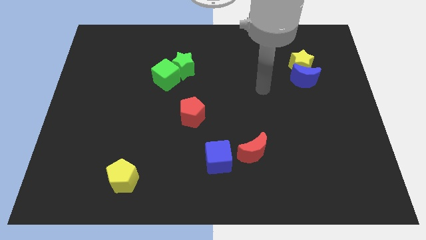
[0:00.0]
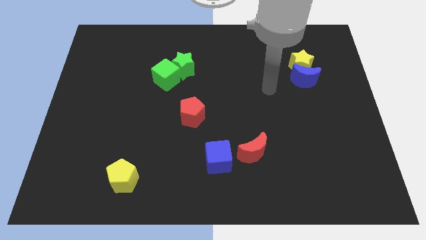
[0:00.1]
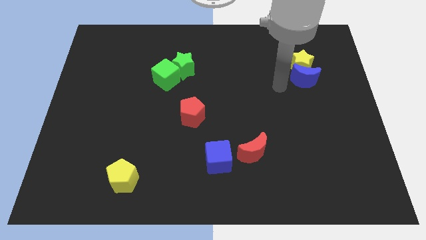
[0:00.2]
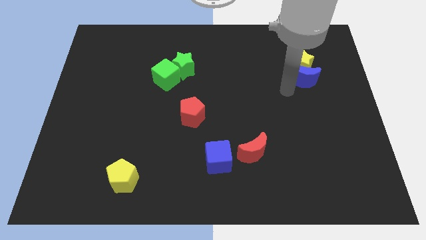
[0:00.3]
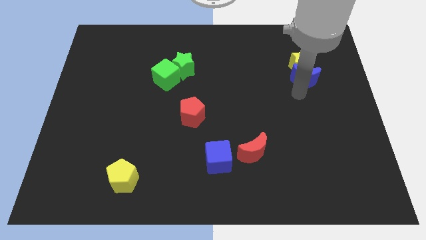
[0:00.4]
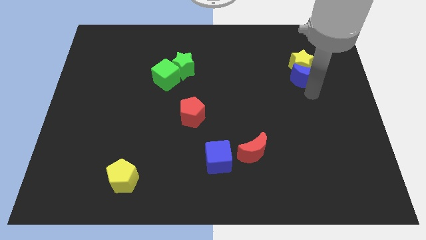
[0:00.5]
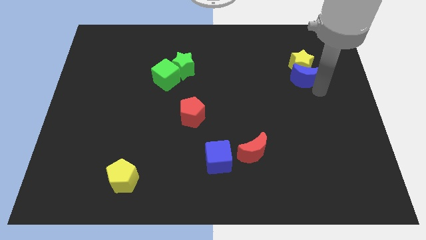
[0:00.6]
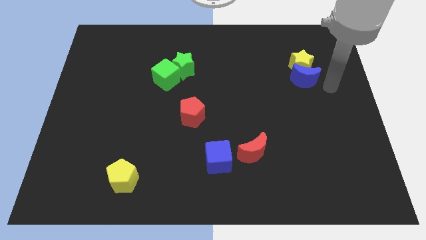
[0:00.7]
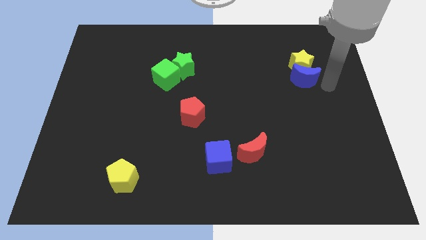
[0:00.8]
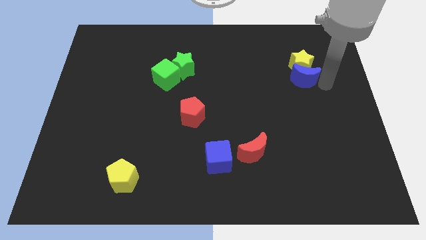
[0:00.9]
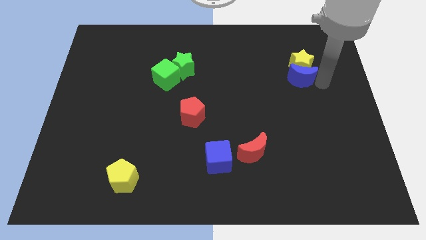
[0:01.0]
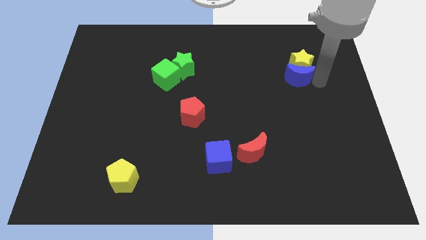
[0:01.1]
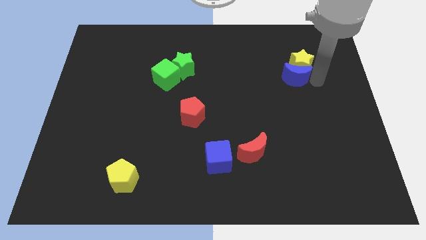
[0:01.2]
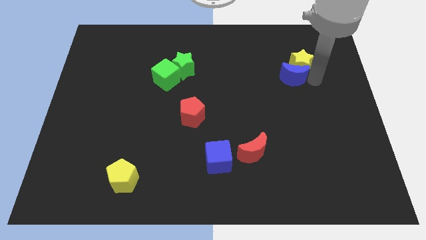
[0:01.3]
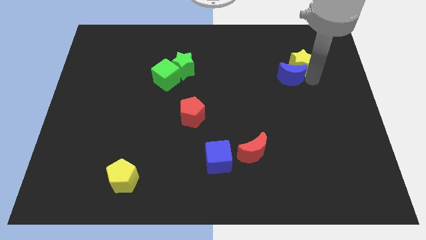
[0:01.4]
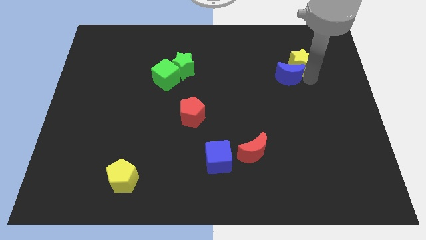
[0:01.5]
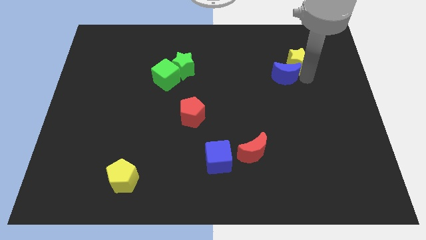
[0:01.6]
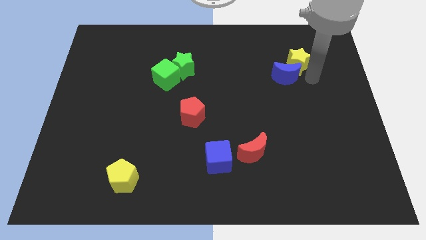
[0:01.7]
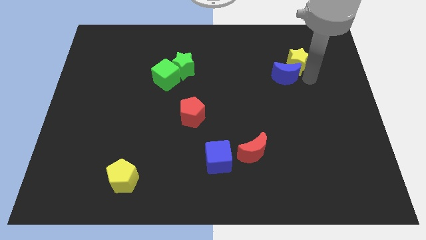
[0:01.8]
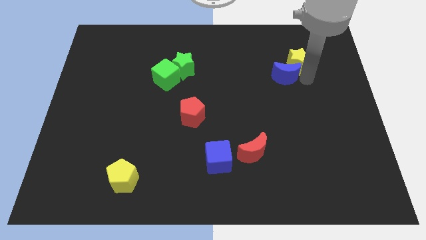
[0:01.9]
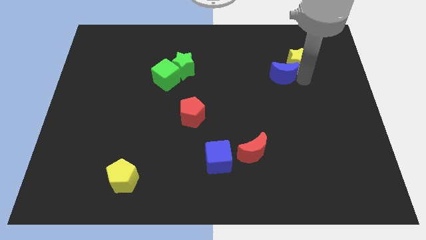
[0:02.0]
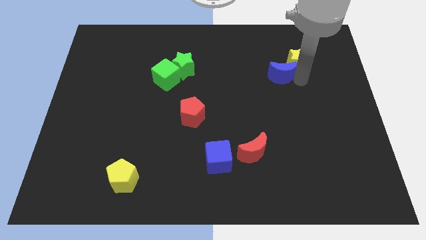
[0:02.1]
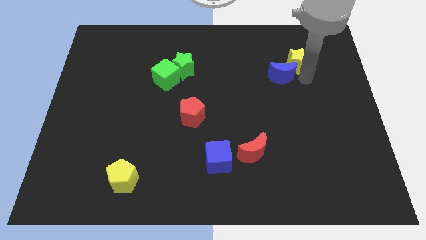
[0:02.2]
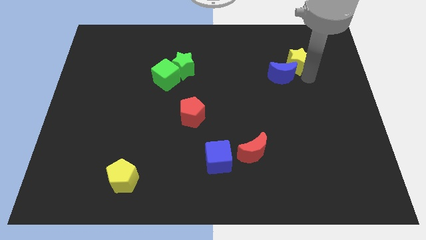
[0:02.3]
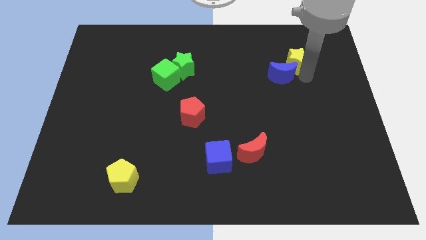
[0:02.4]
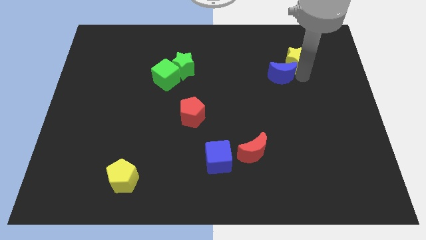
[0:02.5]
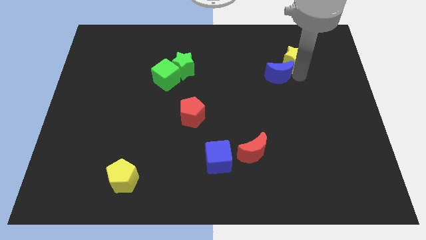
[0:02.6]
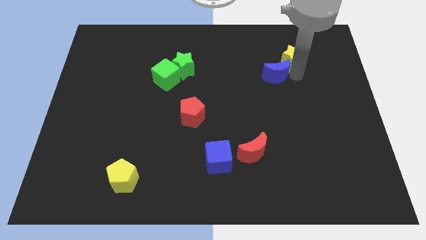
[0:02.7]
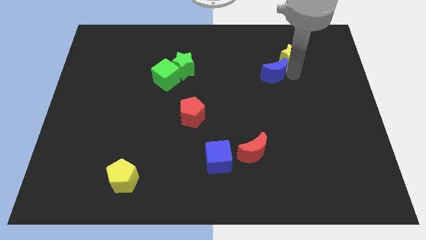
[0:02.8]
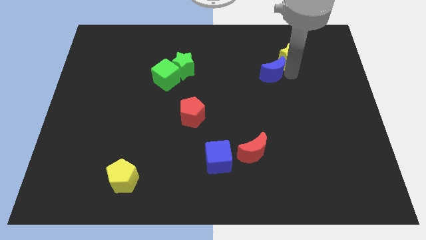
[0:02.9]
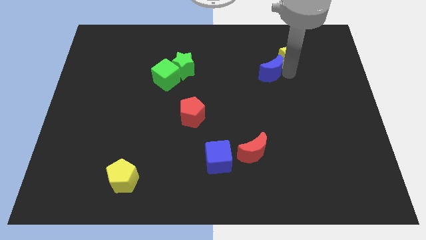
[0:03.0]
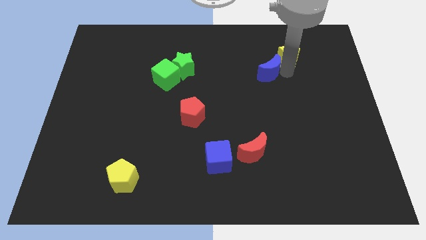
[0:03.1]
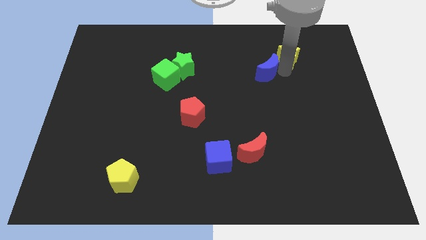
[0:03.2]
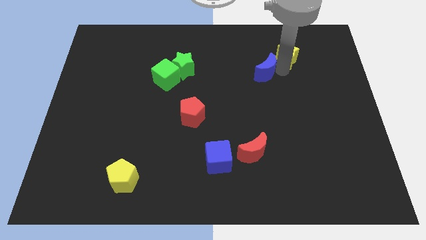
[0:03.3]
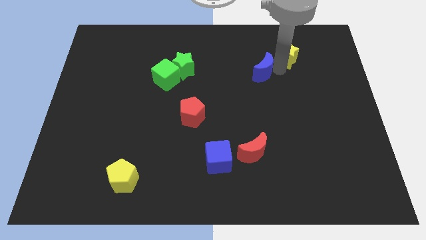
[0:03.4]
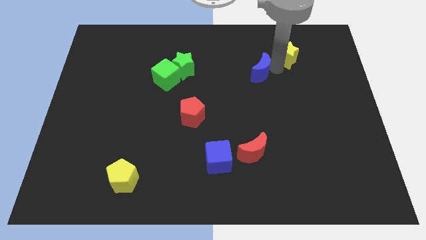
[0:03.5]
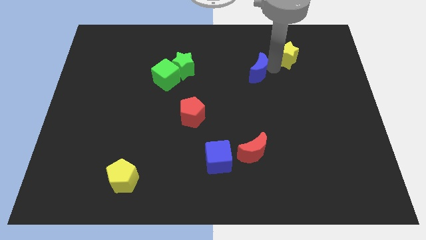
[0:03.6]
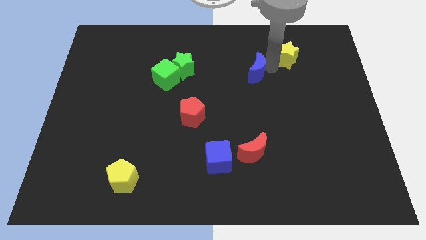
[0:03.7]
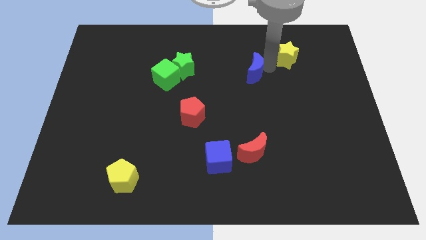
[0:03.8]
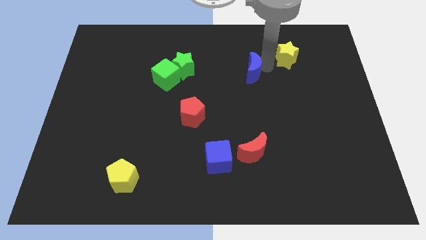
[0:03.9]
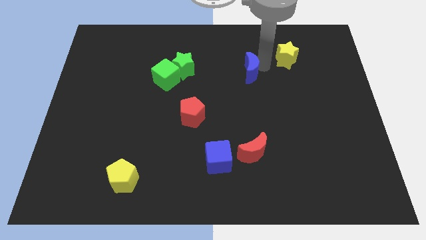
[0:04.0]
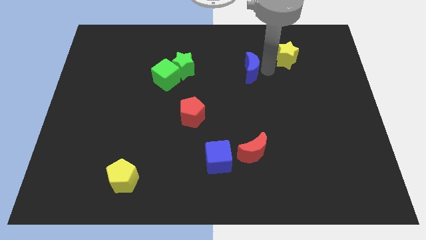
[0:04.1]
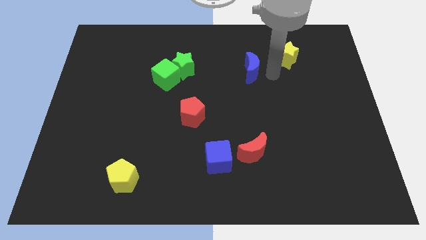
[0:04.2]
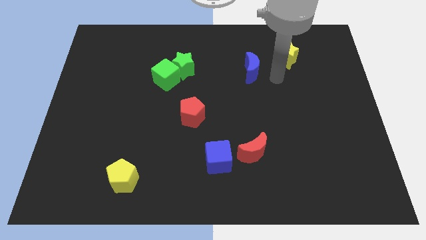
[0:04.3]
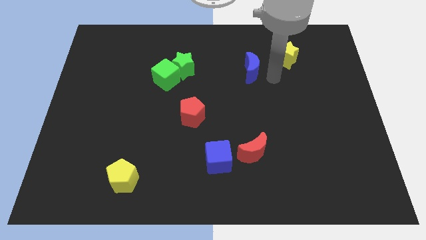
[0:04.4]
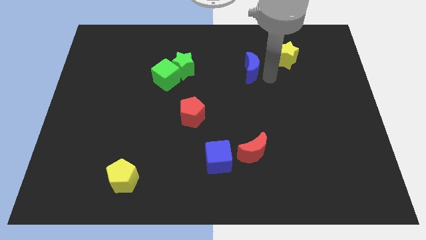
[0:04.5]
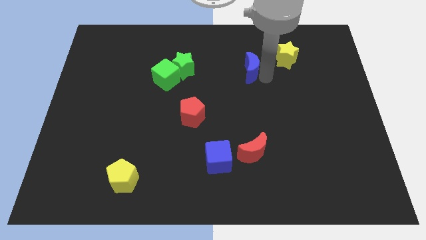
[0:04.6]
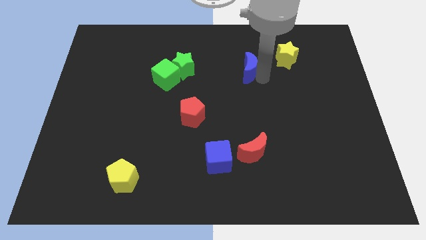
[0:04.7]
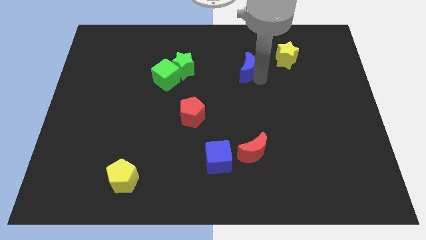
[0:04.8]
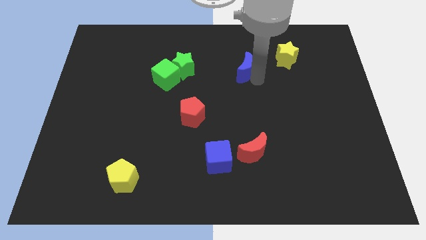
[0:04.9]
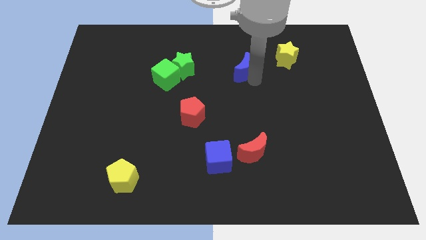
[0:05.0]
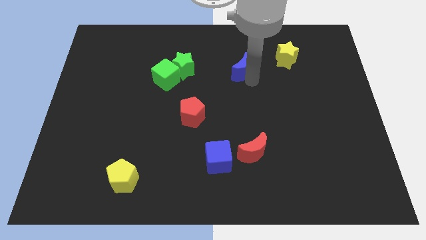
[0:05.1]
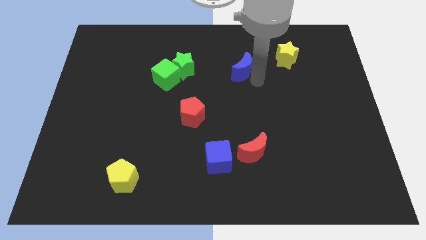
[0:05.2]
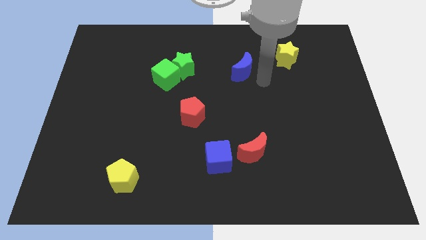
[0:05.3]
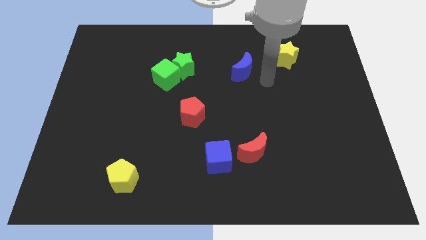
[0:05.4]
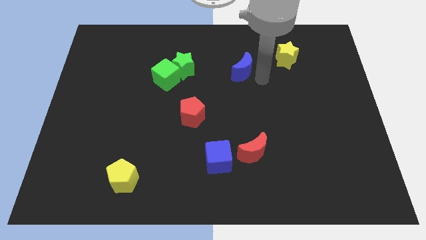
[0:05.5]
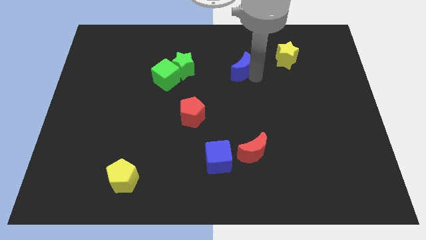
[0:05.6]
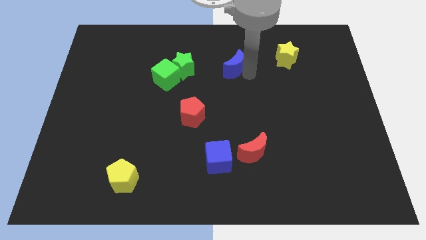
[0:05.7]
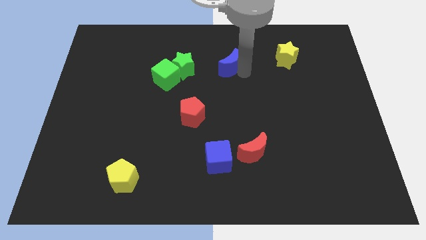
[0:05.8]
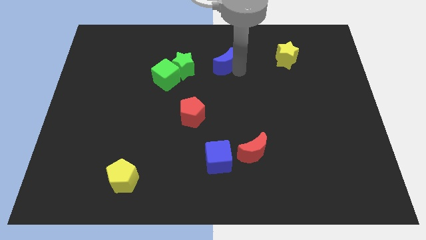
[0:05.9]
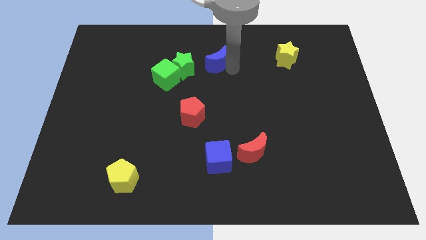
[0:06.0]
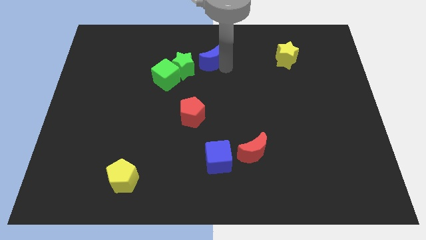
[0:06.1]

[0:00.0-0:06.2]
push the blue moon to the top right side of the green star
